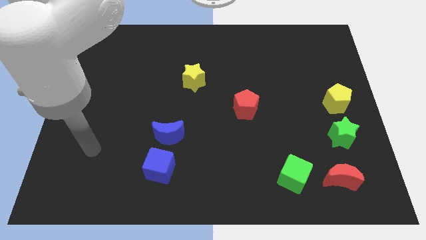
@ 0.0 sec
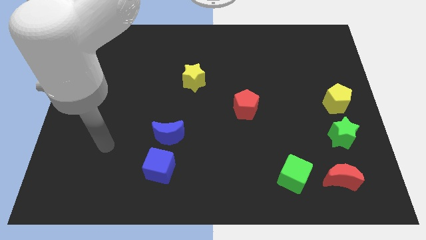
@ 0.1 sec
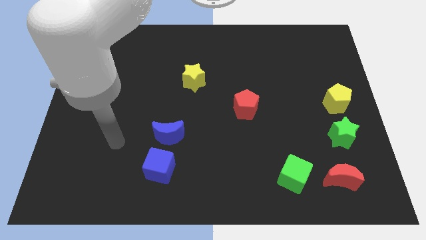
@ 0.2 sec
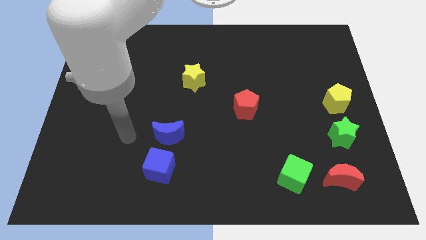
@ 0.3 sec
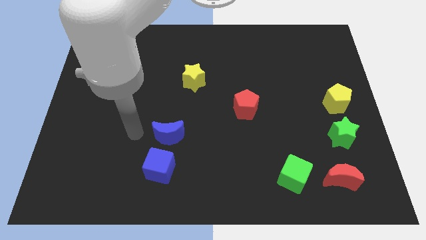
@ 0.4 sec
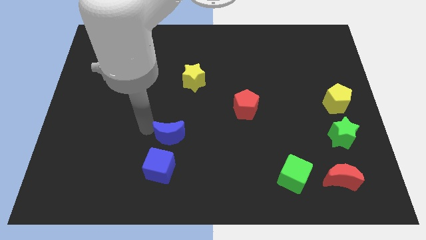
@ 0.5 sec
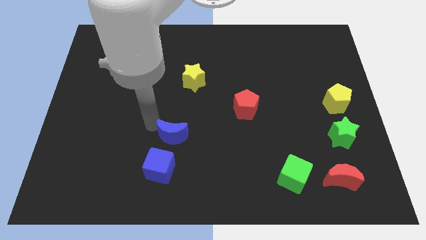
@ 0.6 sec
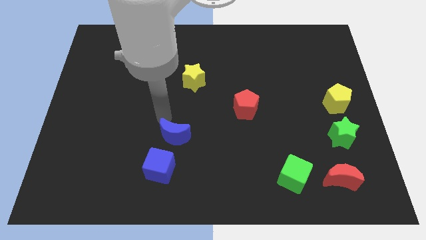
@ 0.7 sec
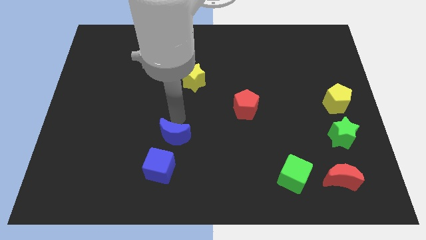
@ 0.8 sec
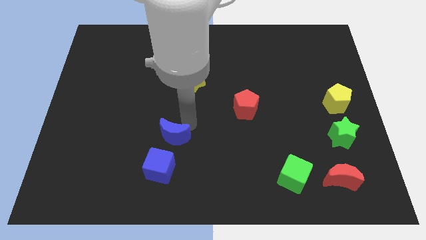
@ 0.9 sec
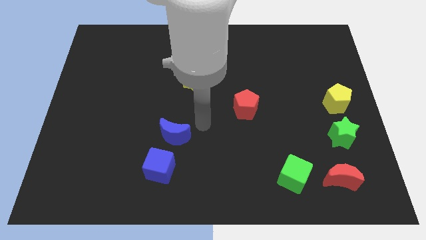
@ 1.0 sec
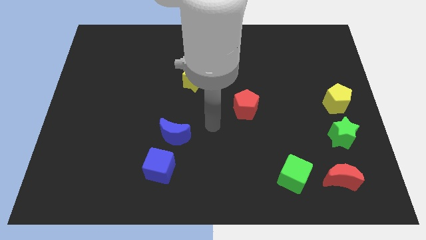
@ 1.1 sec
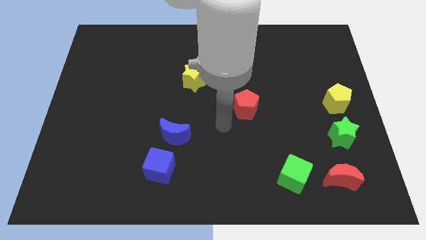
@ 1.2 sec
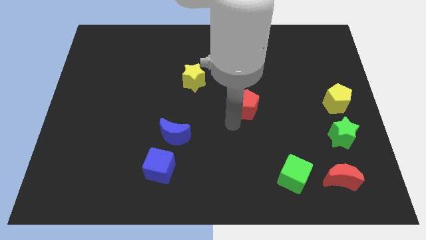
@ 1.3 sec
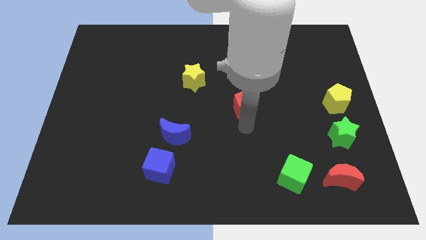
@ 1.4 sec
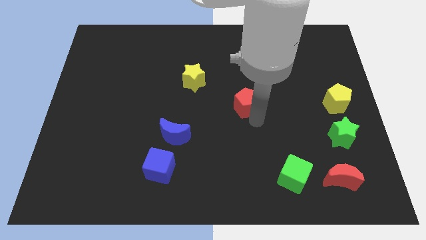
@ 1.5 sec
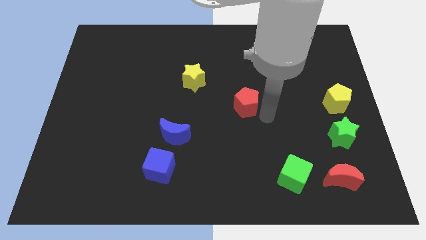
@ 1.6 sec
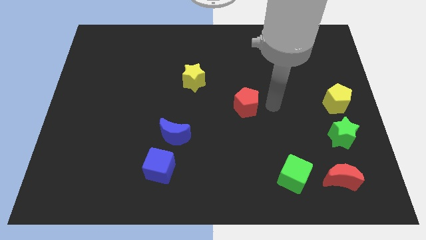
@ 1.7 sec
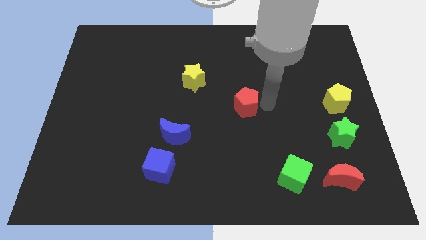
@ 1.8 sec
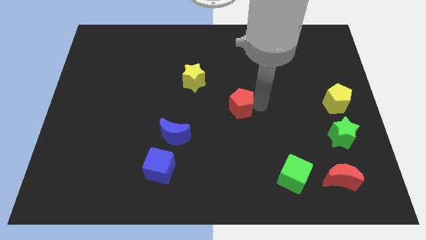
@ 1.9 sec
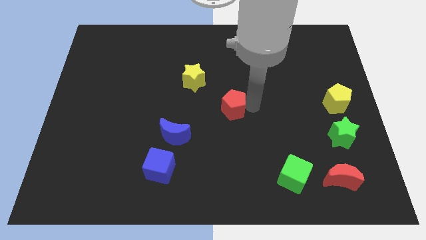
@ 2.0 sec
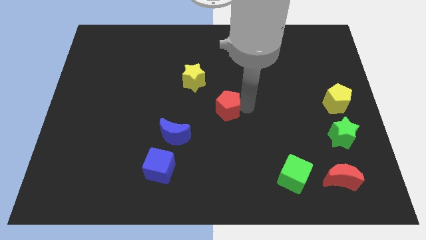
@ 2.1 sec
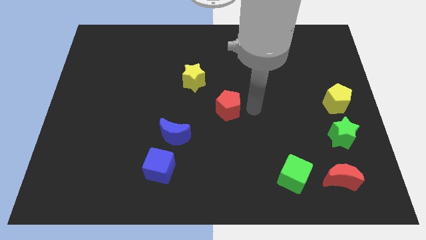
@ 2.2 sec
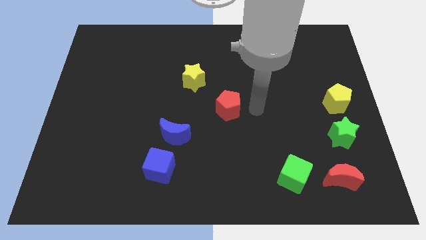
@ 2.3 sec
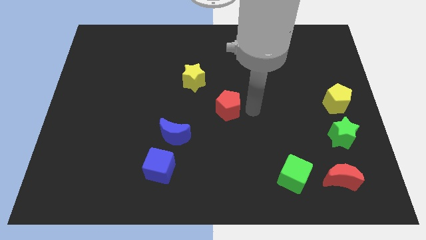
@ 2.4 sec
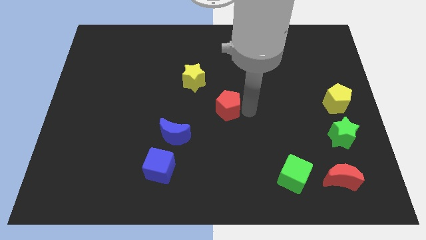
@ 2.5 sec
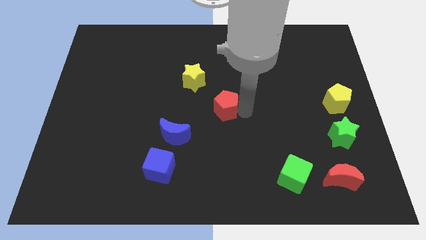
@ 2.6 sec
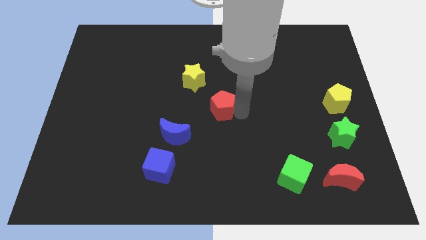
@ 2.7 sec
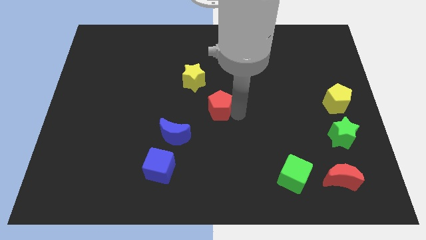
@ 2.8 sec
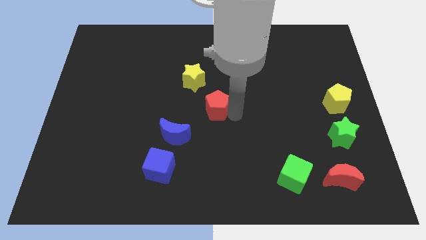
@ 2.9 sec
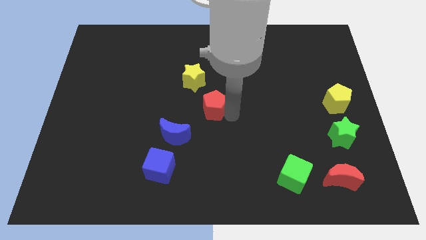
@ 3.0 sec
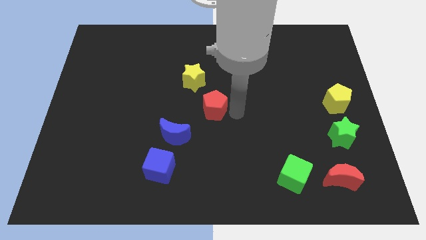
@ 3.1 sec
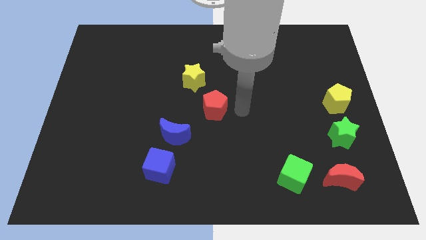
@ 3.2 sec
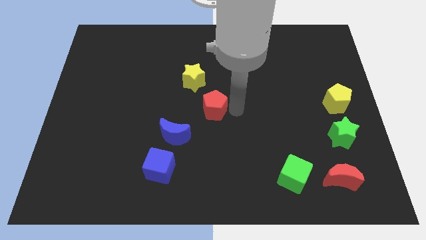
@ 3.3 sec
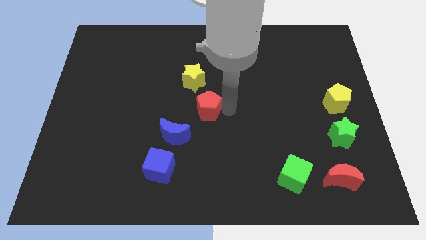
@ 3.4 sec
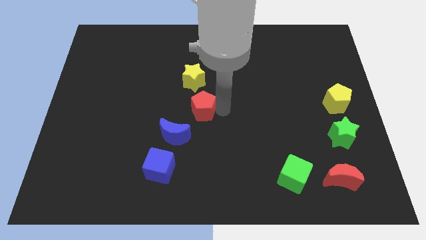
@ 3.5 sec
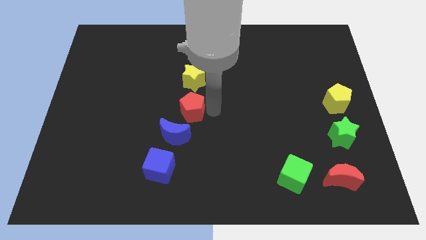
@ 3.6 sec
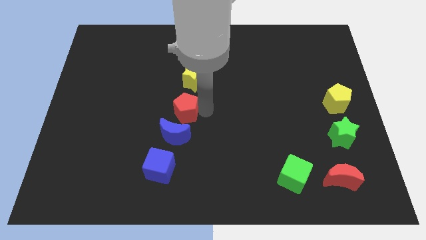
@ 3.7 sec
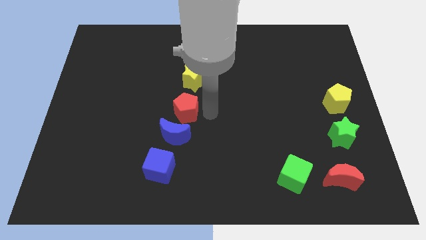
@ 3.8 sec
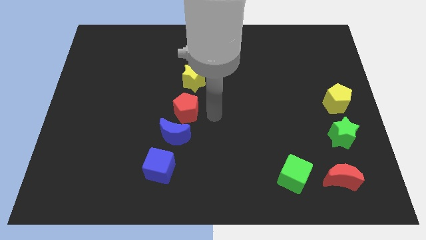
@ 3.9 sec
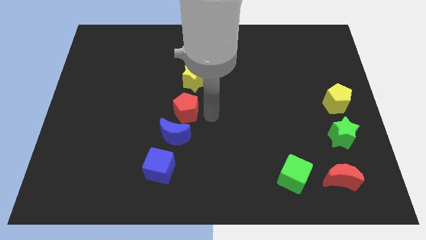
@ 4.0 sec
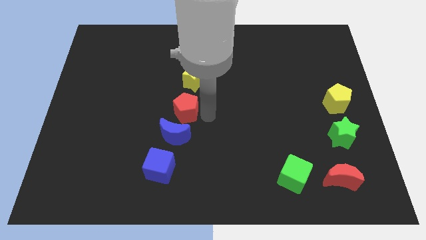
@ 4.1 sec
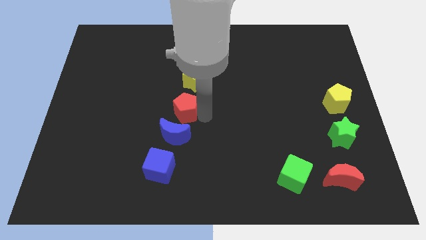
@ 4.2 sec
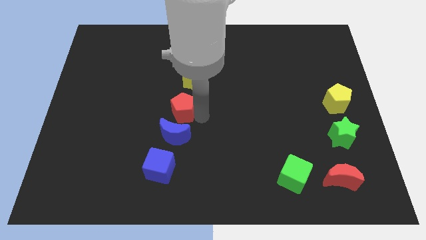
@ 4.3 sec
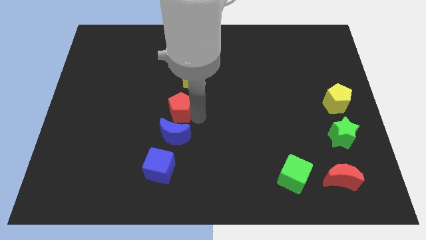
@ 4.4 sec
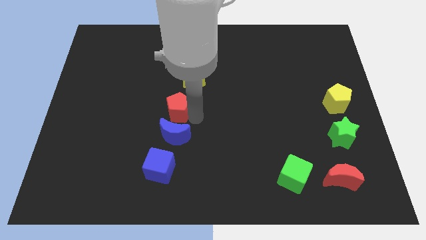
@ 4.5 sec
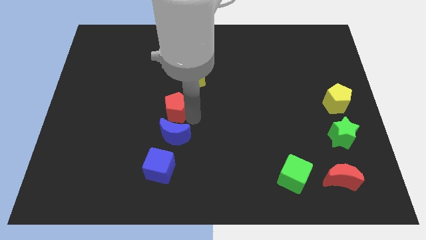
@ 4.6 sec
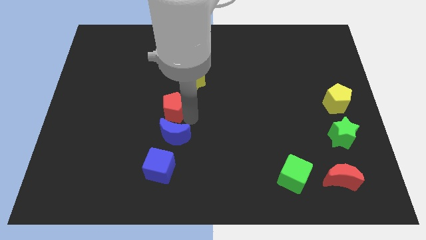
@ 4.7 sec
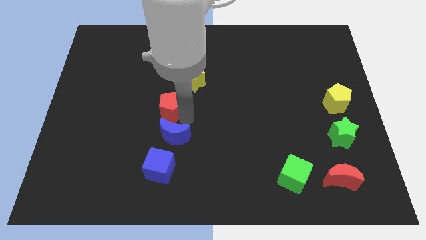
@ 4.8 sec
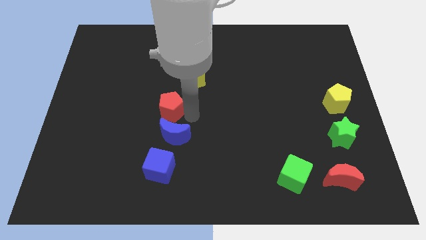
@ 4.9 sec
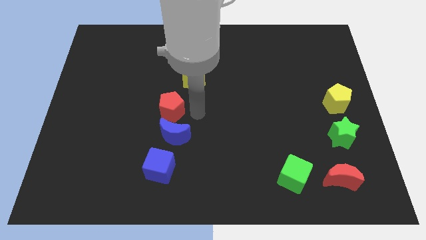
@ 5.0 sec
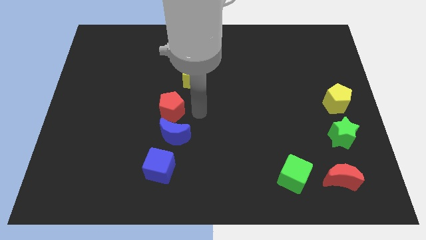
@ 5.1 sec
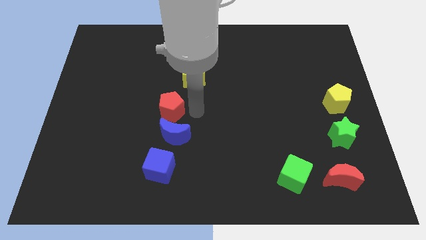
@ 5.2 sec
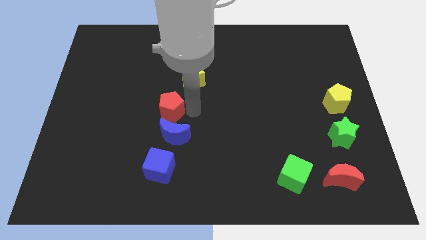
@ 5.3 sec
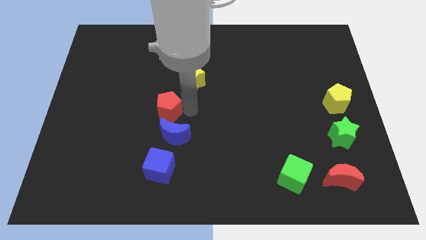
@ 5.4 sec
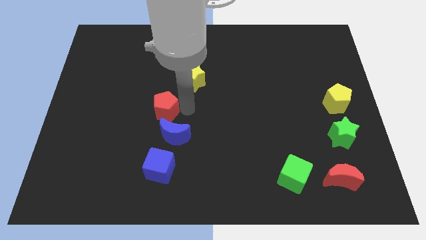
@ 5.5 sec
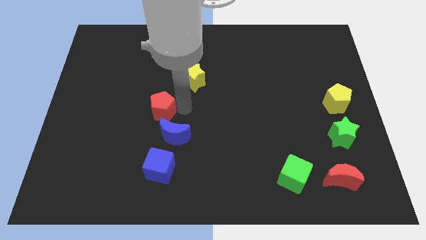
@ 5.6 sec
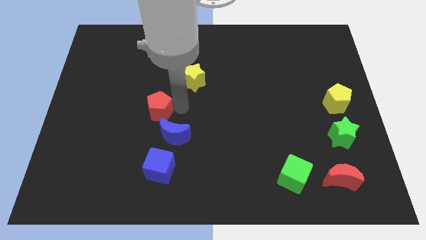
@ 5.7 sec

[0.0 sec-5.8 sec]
push the red pentagon left

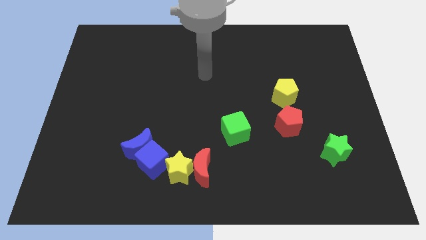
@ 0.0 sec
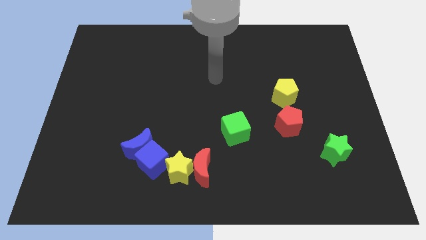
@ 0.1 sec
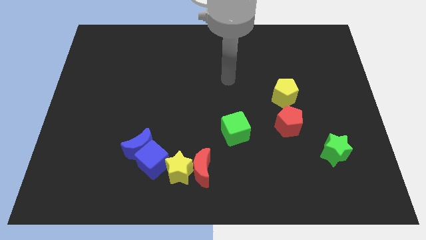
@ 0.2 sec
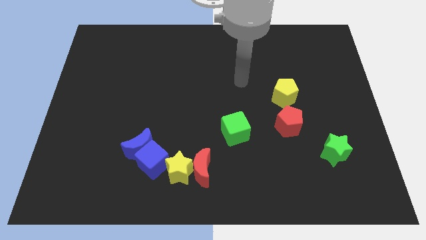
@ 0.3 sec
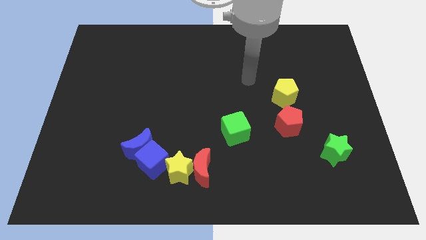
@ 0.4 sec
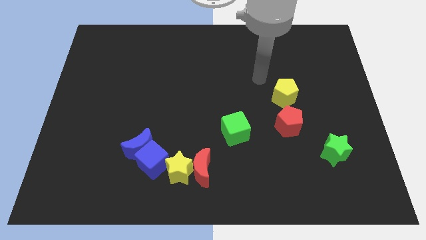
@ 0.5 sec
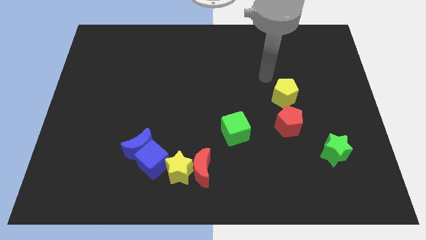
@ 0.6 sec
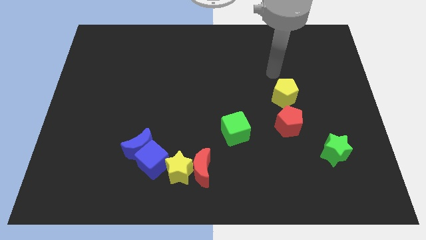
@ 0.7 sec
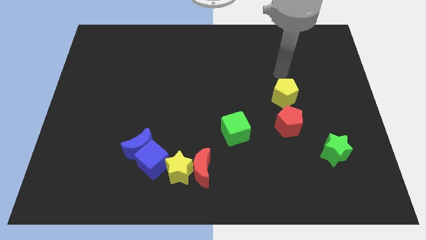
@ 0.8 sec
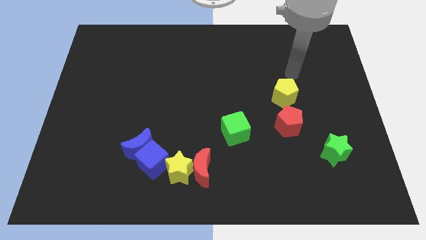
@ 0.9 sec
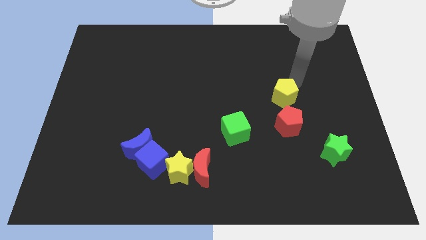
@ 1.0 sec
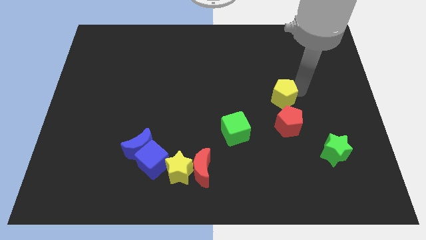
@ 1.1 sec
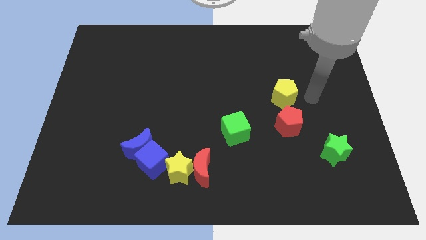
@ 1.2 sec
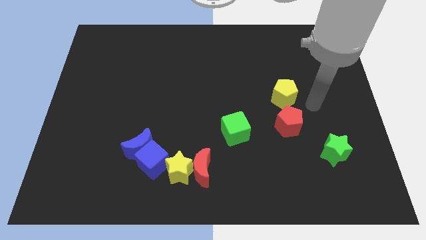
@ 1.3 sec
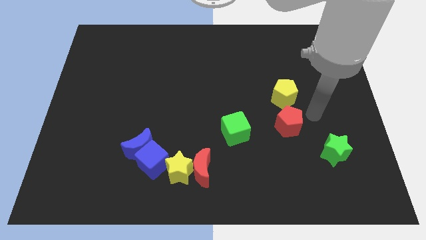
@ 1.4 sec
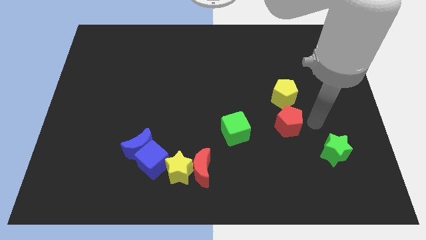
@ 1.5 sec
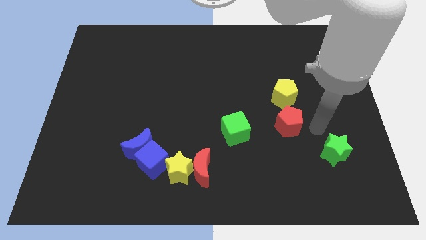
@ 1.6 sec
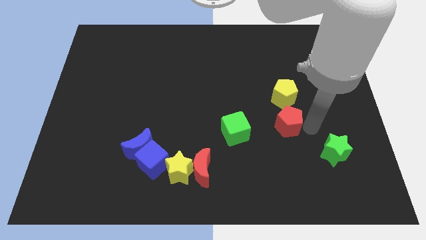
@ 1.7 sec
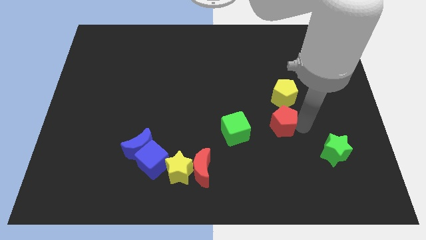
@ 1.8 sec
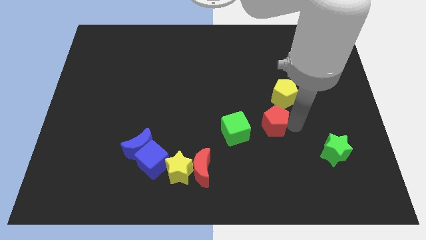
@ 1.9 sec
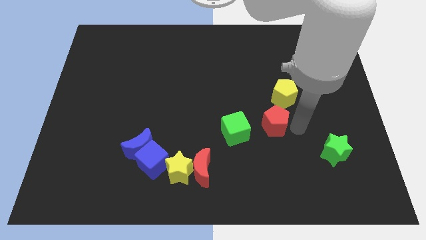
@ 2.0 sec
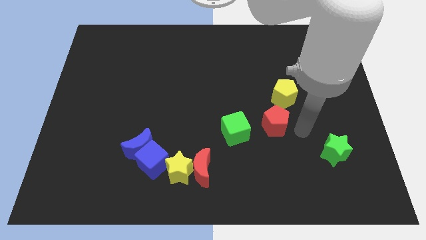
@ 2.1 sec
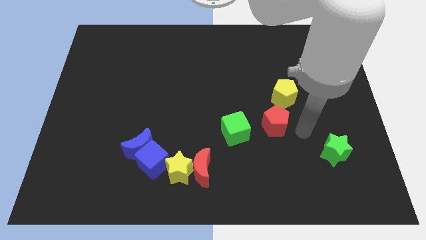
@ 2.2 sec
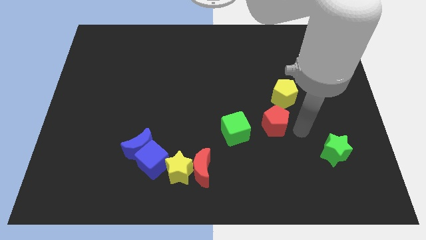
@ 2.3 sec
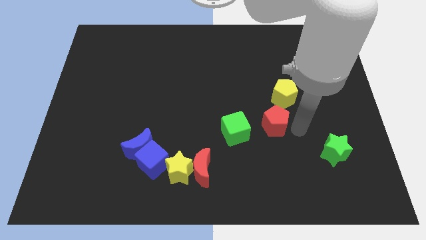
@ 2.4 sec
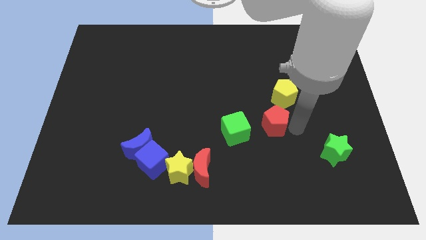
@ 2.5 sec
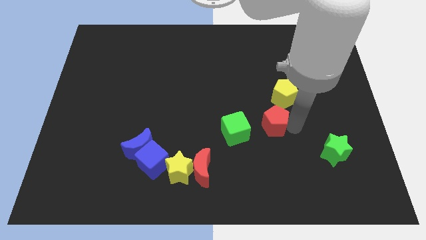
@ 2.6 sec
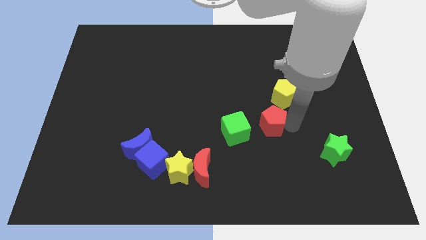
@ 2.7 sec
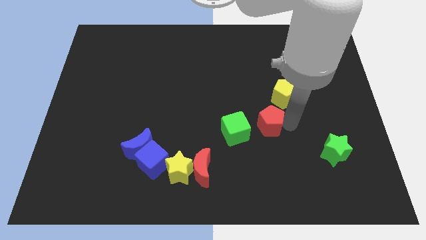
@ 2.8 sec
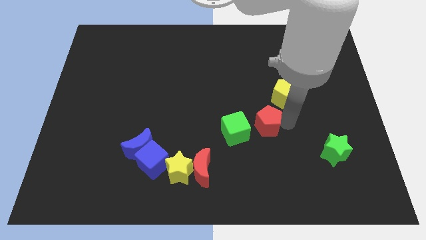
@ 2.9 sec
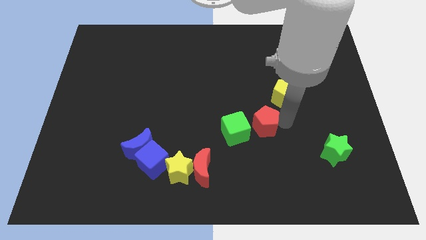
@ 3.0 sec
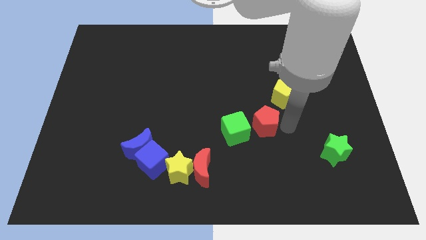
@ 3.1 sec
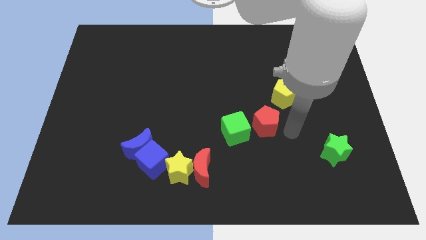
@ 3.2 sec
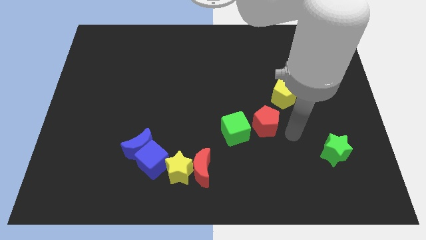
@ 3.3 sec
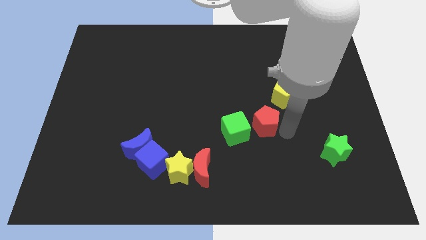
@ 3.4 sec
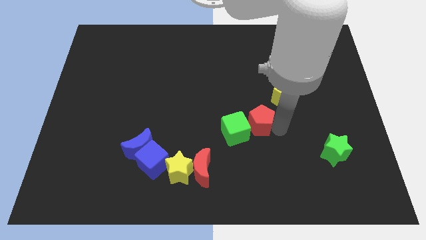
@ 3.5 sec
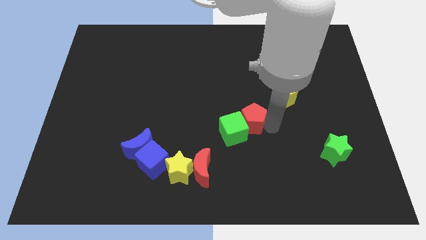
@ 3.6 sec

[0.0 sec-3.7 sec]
push the red pentagon a little to the left
